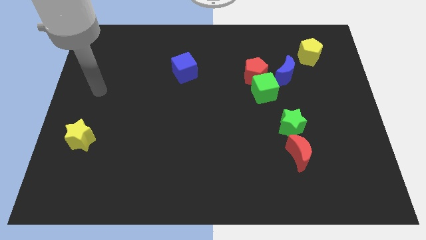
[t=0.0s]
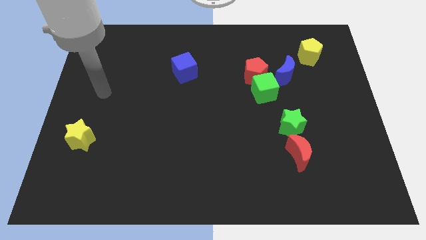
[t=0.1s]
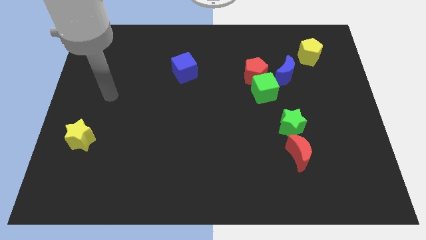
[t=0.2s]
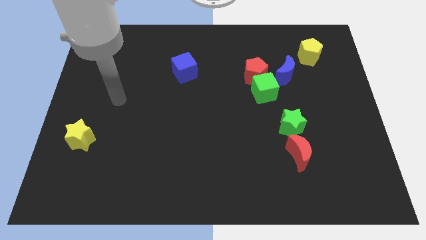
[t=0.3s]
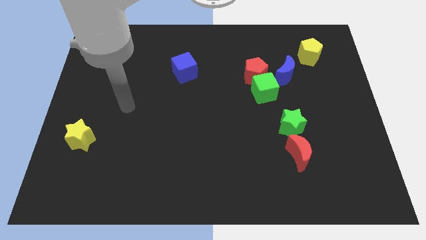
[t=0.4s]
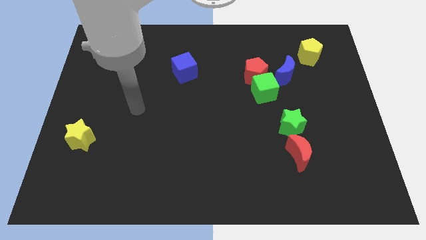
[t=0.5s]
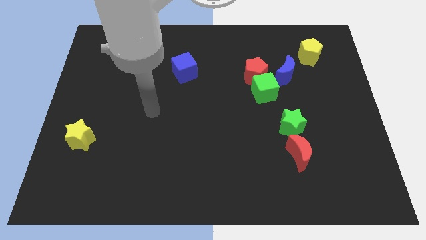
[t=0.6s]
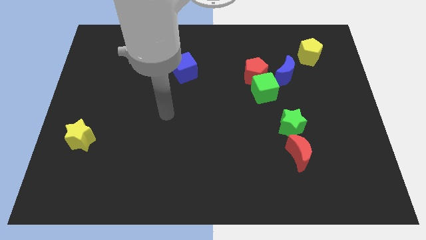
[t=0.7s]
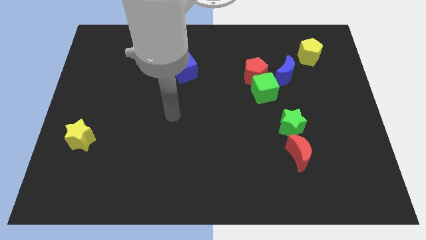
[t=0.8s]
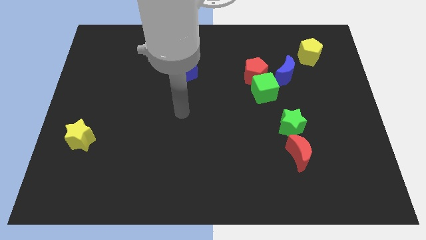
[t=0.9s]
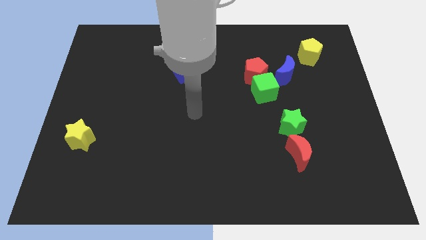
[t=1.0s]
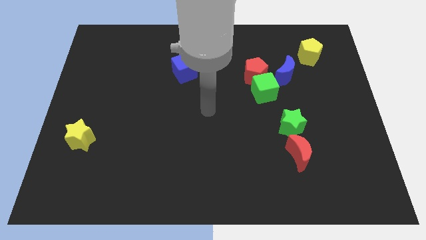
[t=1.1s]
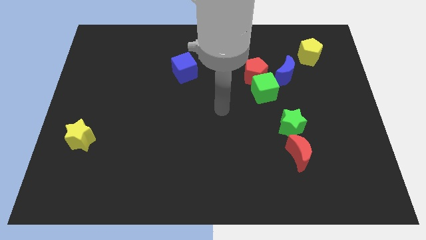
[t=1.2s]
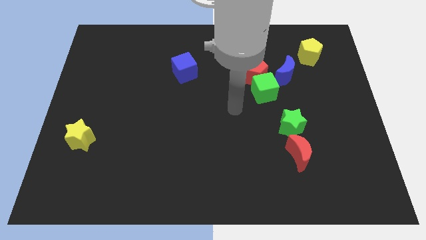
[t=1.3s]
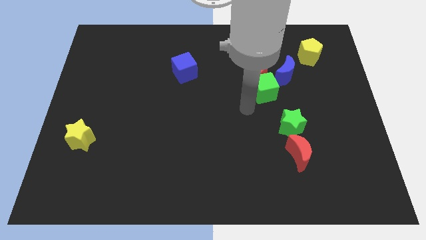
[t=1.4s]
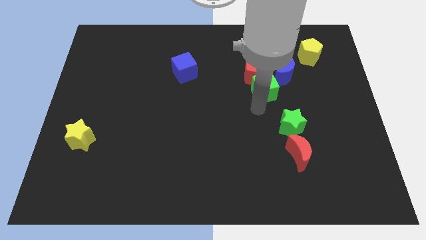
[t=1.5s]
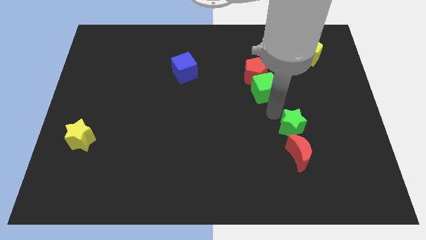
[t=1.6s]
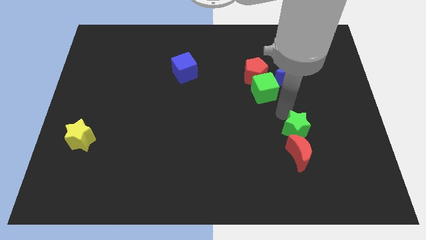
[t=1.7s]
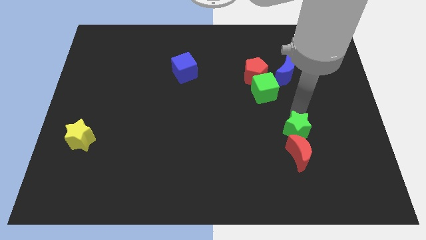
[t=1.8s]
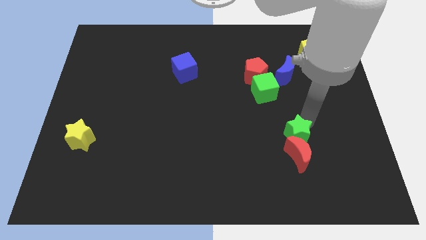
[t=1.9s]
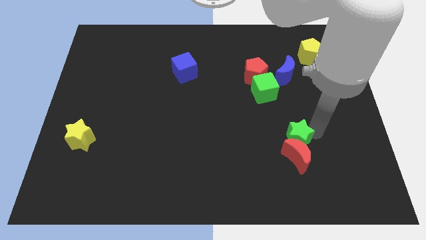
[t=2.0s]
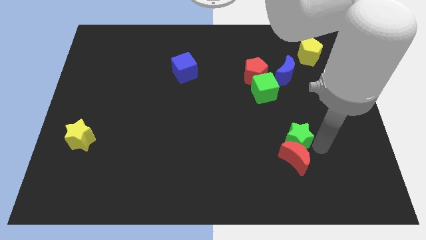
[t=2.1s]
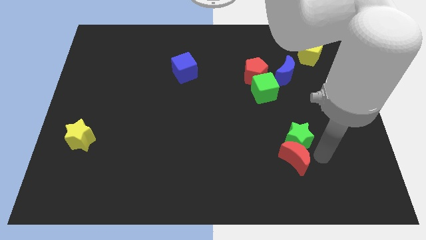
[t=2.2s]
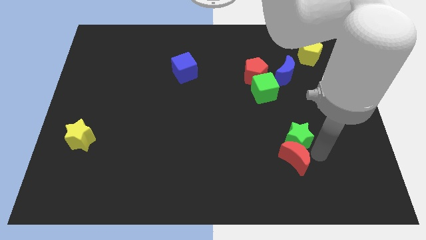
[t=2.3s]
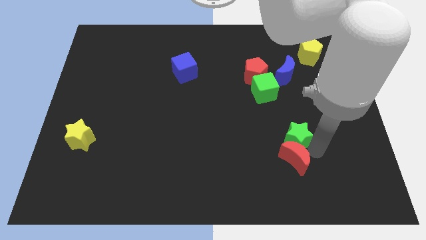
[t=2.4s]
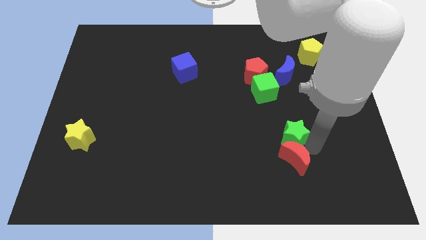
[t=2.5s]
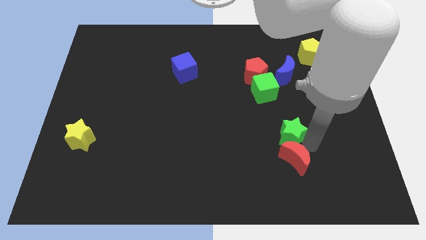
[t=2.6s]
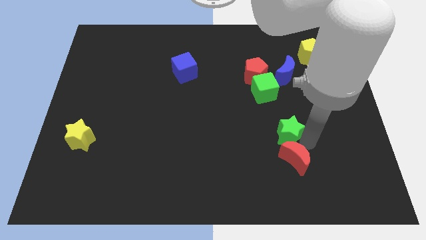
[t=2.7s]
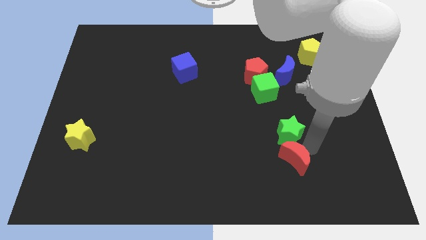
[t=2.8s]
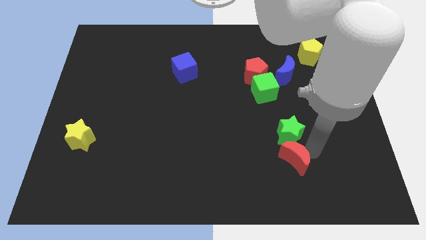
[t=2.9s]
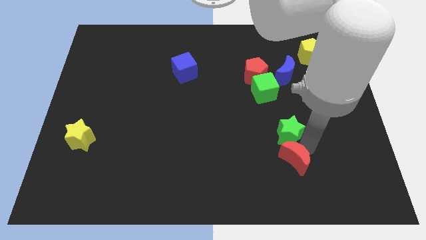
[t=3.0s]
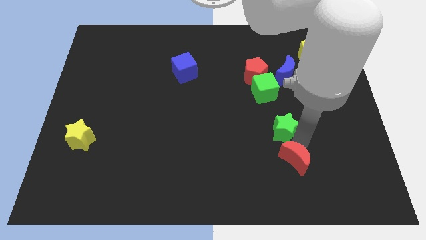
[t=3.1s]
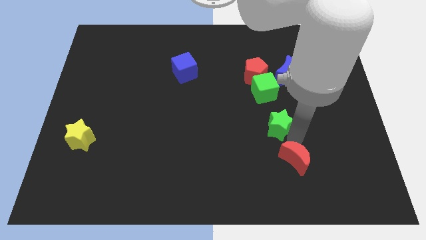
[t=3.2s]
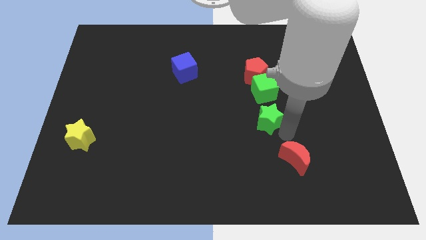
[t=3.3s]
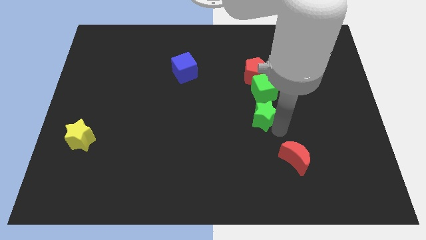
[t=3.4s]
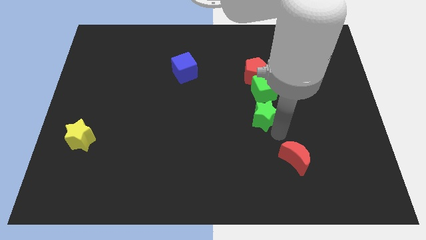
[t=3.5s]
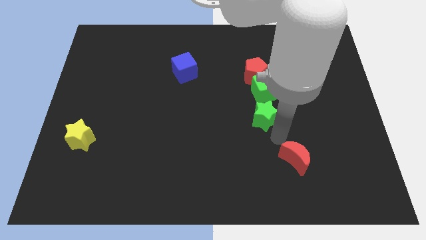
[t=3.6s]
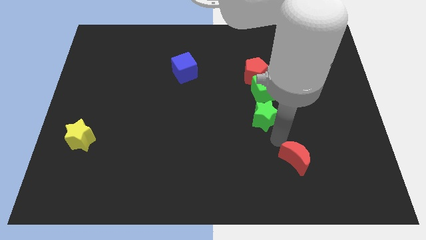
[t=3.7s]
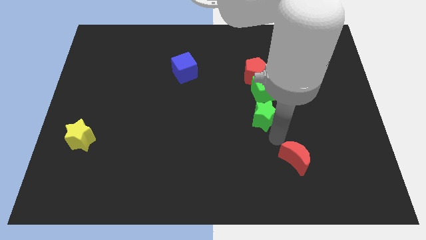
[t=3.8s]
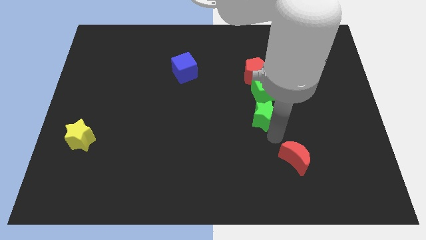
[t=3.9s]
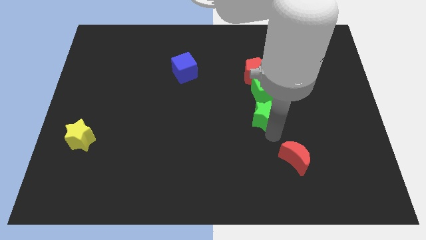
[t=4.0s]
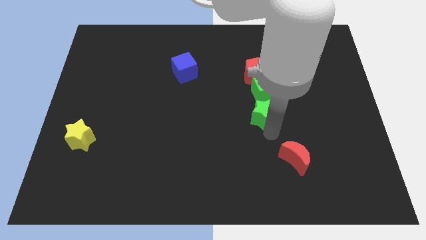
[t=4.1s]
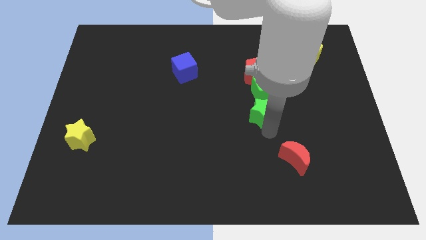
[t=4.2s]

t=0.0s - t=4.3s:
slide the green star upwards and to the left diagonally slightly

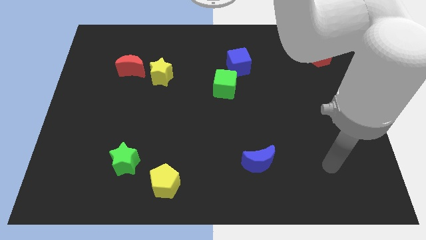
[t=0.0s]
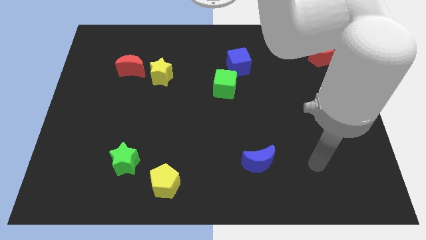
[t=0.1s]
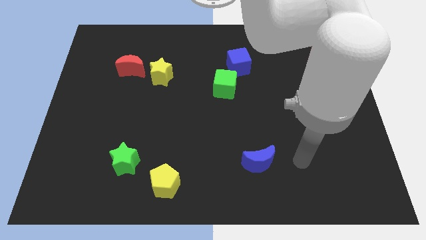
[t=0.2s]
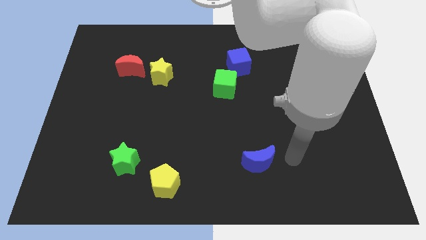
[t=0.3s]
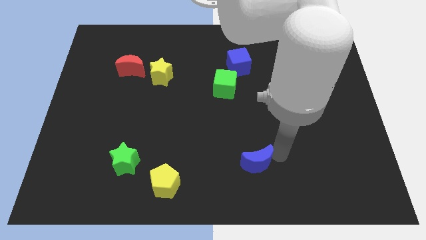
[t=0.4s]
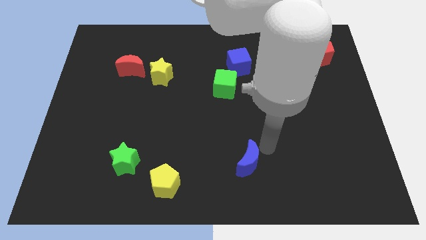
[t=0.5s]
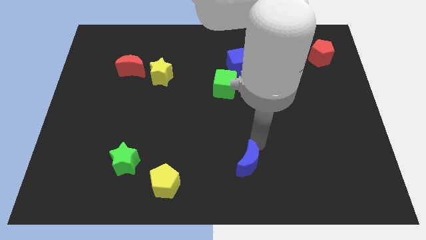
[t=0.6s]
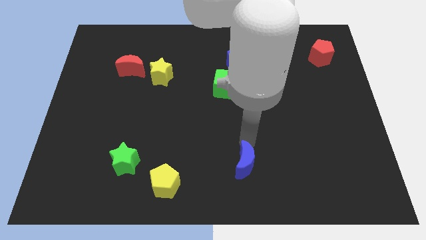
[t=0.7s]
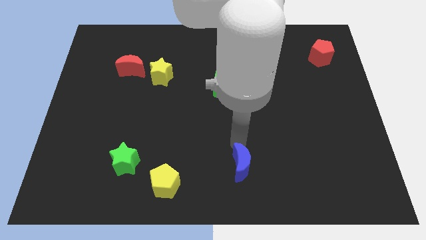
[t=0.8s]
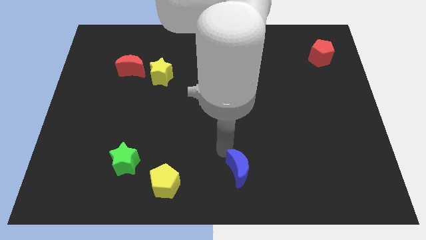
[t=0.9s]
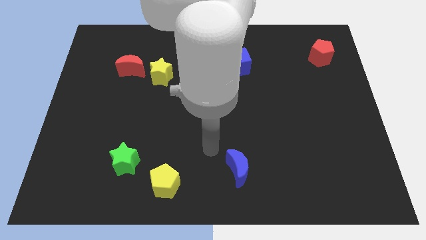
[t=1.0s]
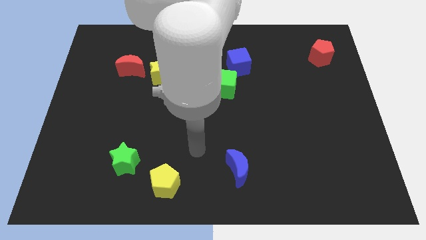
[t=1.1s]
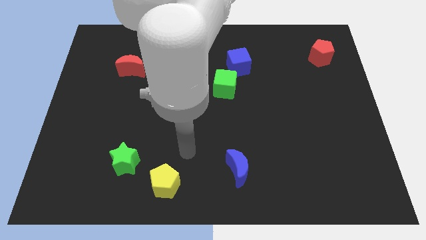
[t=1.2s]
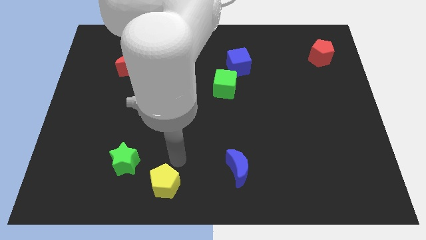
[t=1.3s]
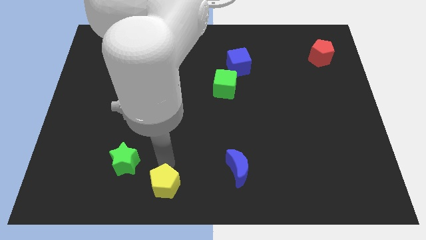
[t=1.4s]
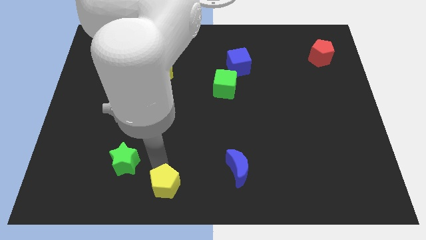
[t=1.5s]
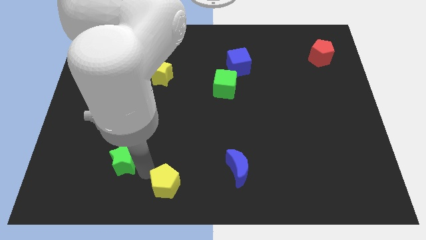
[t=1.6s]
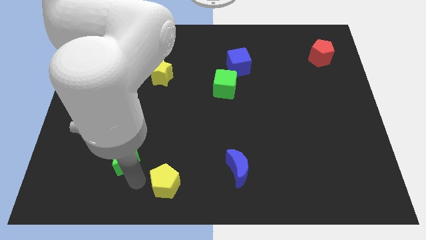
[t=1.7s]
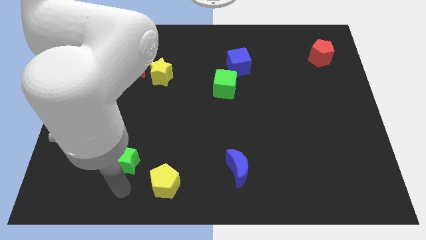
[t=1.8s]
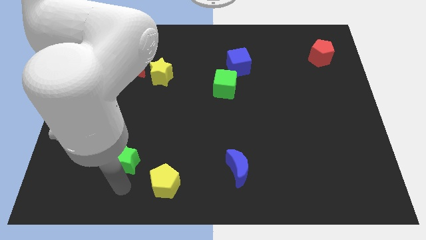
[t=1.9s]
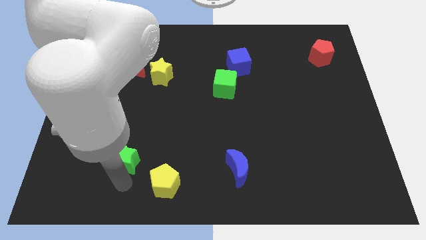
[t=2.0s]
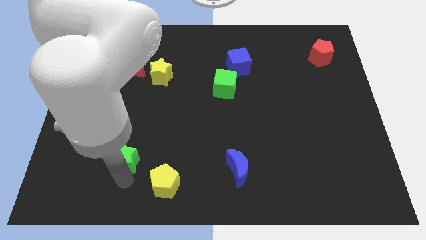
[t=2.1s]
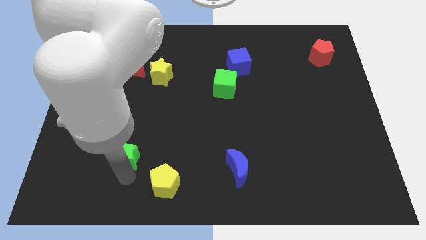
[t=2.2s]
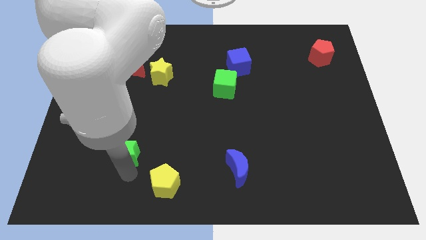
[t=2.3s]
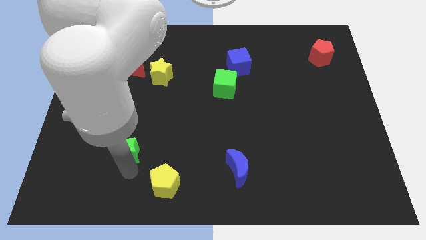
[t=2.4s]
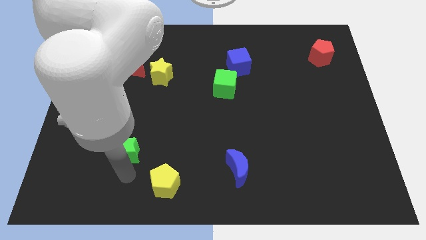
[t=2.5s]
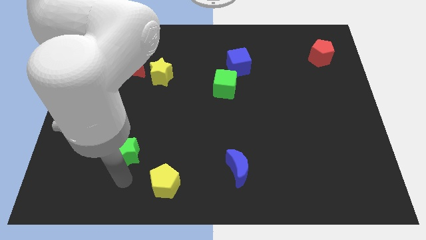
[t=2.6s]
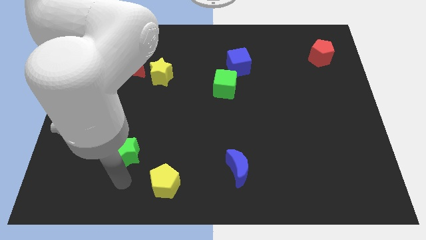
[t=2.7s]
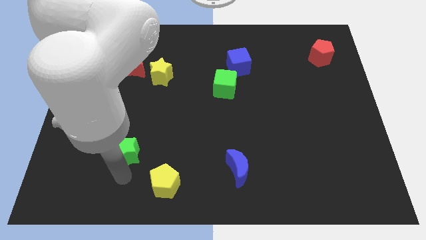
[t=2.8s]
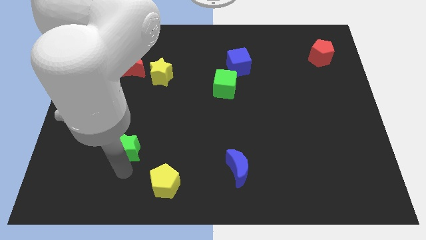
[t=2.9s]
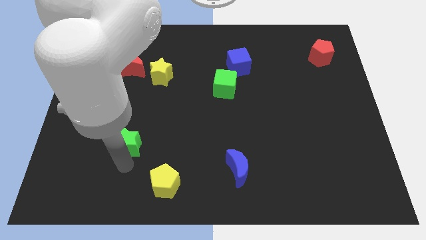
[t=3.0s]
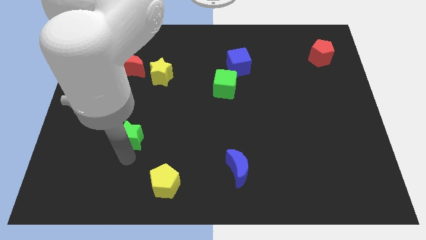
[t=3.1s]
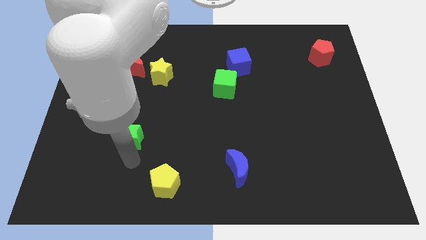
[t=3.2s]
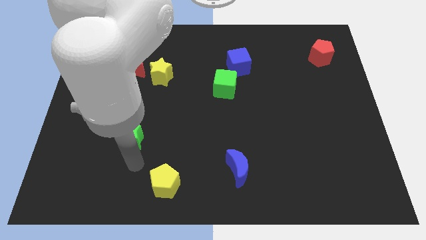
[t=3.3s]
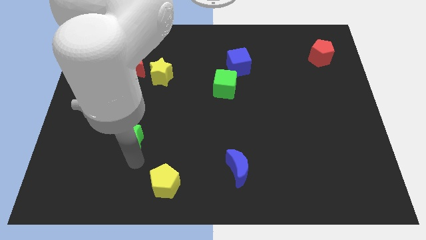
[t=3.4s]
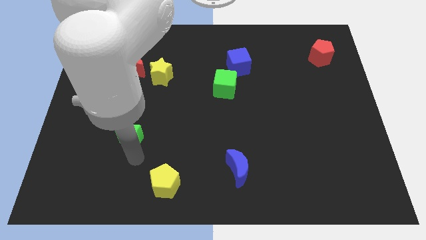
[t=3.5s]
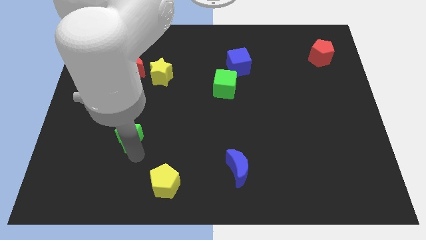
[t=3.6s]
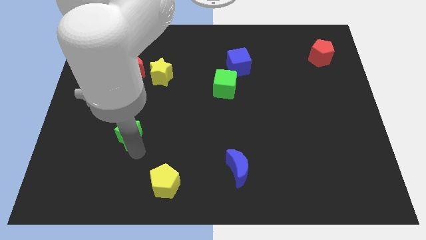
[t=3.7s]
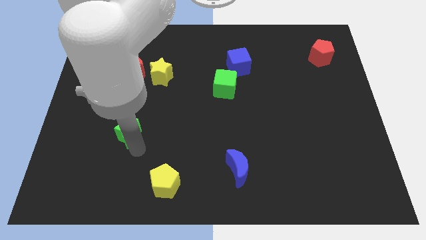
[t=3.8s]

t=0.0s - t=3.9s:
push the green star upwards a little bit

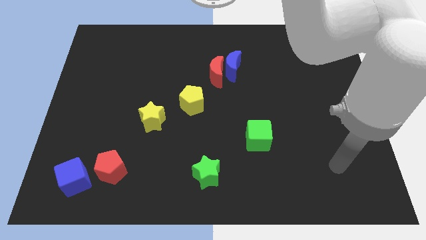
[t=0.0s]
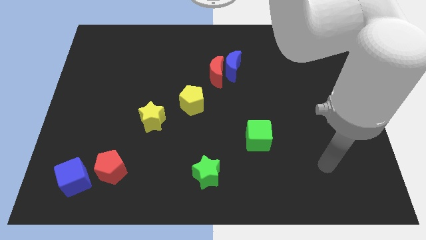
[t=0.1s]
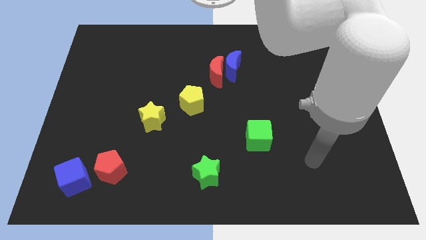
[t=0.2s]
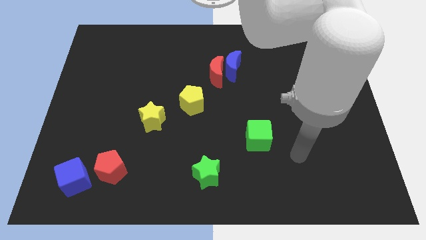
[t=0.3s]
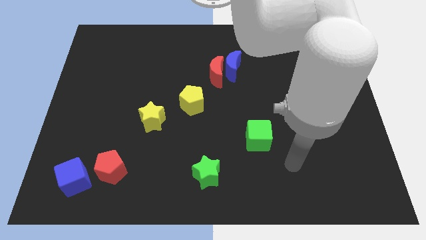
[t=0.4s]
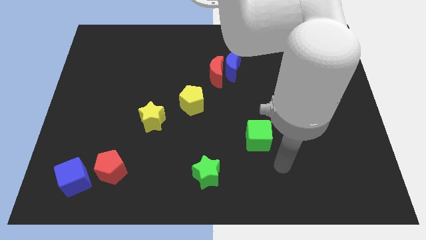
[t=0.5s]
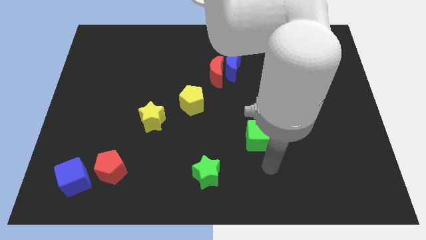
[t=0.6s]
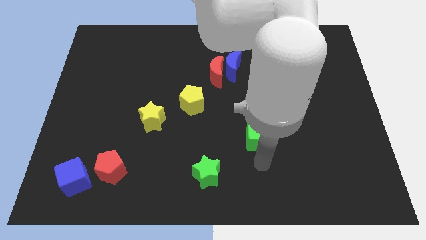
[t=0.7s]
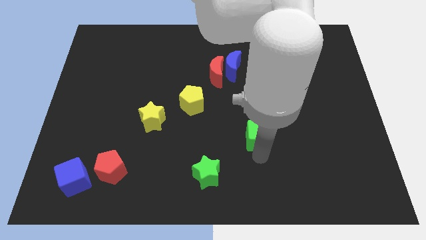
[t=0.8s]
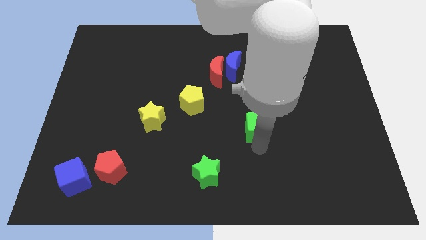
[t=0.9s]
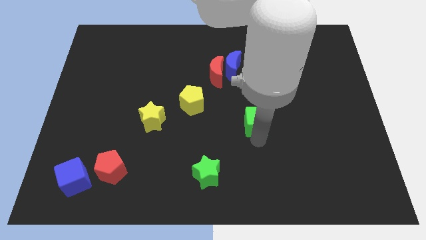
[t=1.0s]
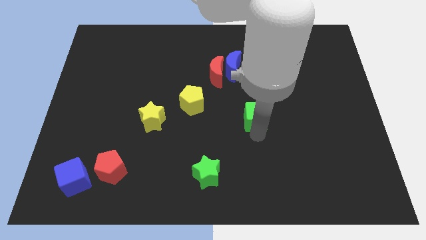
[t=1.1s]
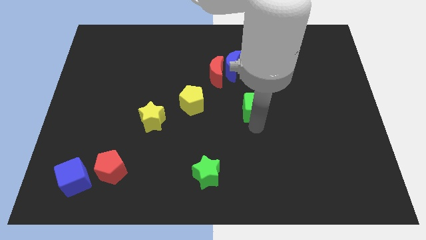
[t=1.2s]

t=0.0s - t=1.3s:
move the green cube a bit up
